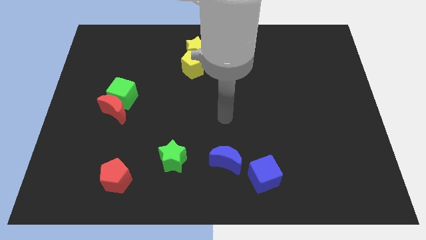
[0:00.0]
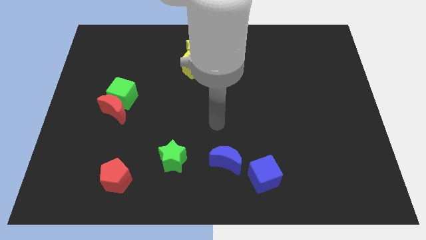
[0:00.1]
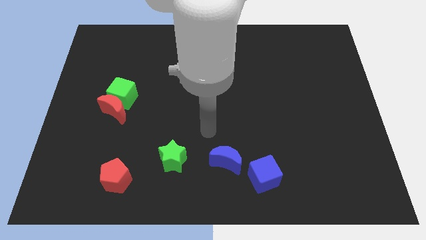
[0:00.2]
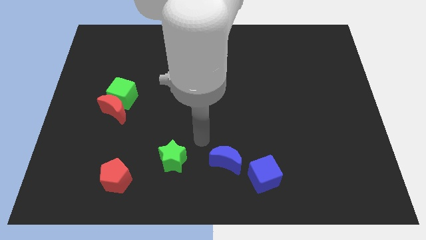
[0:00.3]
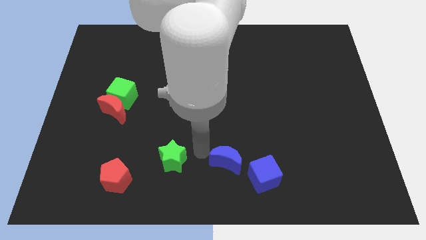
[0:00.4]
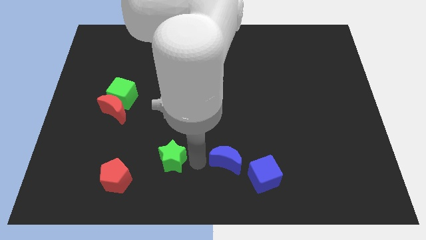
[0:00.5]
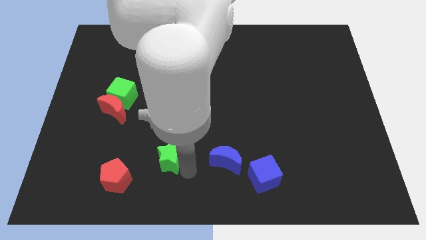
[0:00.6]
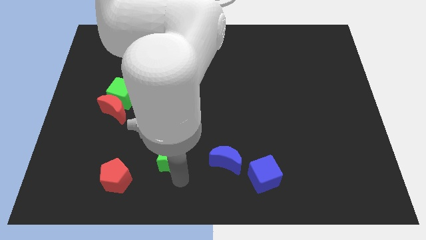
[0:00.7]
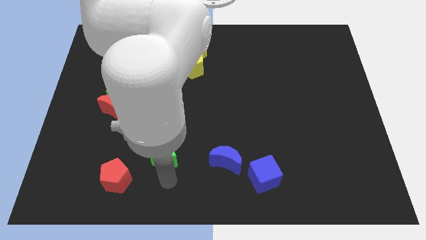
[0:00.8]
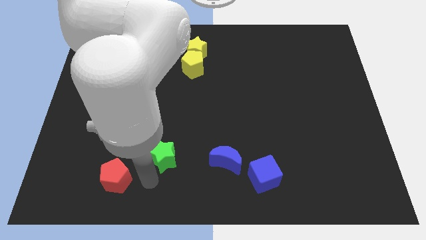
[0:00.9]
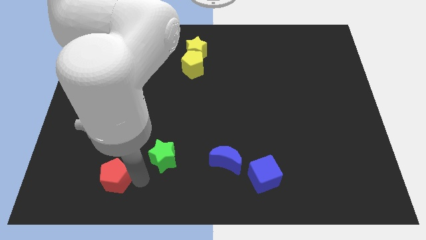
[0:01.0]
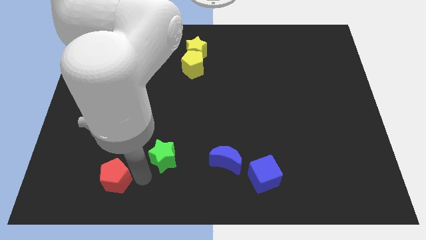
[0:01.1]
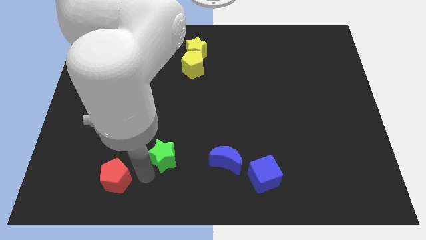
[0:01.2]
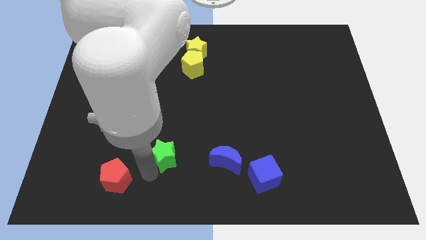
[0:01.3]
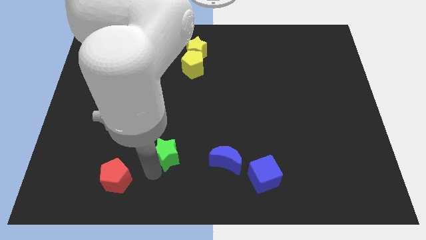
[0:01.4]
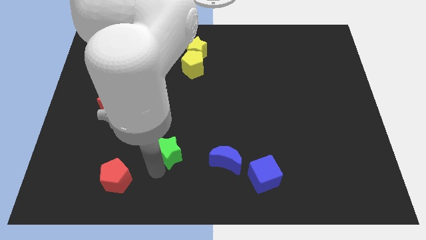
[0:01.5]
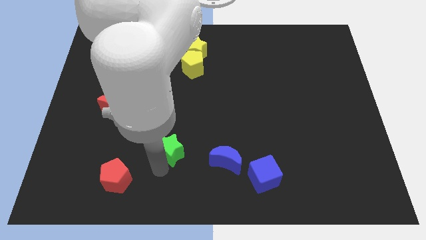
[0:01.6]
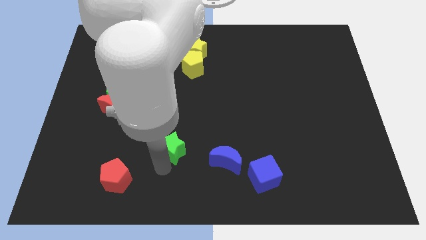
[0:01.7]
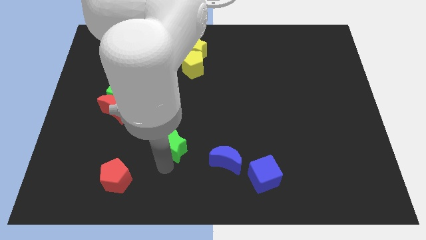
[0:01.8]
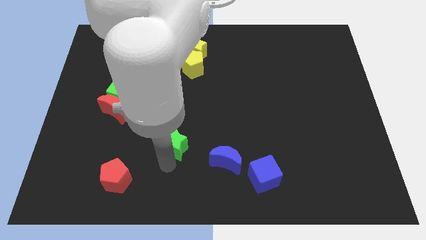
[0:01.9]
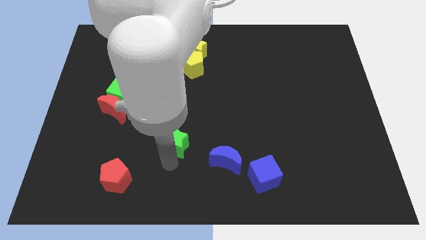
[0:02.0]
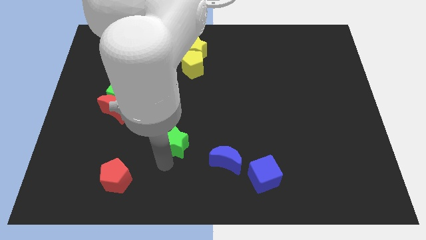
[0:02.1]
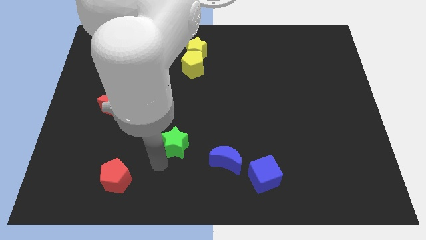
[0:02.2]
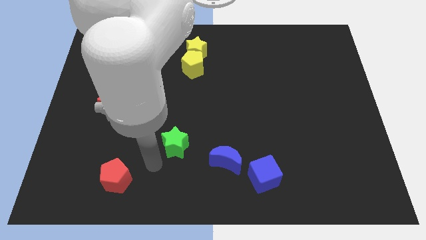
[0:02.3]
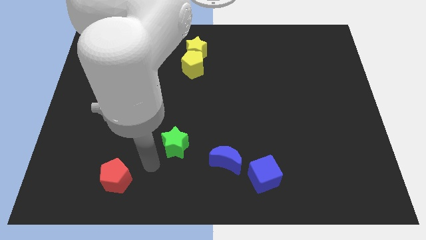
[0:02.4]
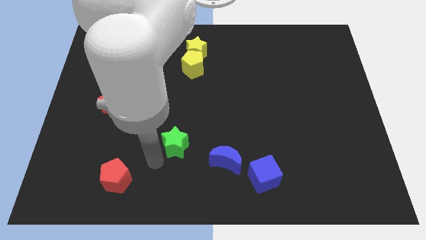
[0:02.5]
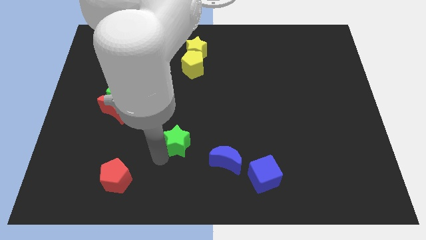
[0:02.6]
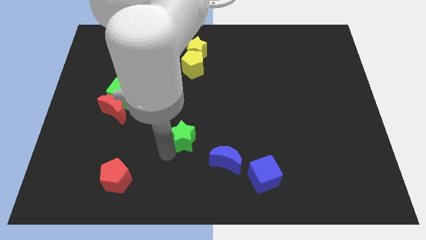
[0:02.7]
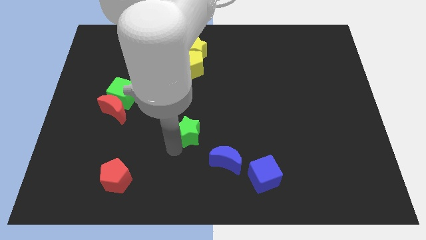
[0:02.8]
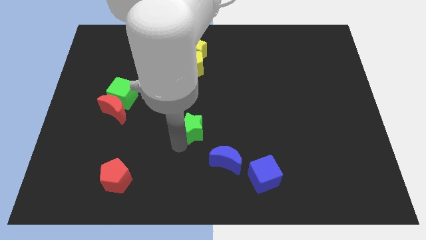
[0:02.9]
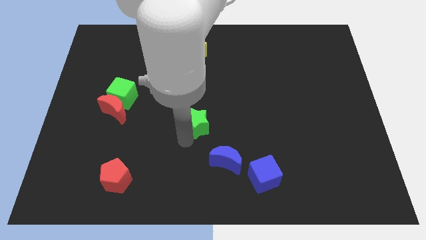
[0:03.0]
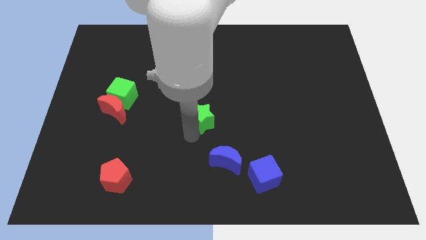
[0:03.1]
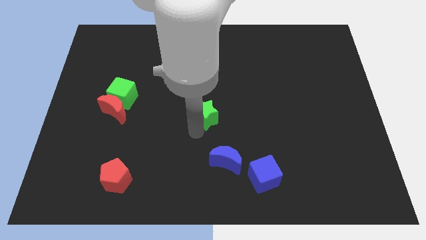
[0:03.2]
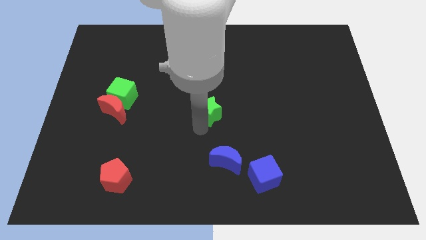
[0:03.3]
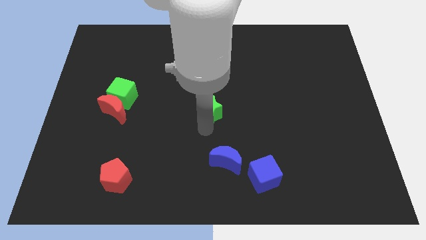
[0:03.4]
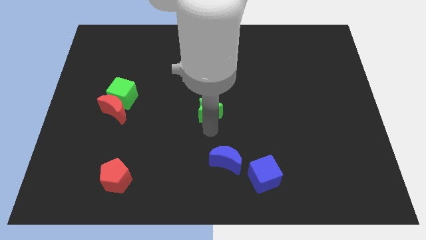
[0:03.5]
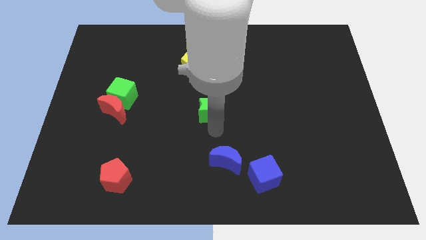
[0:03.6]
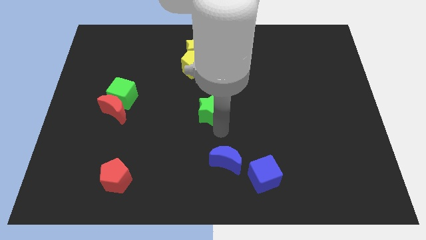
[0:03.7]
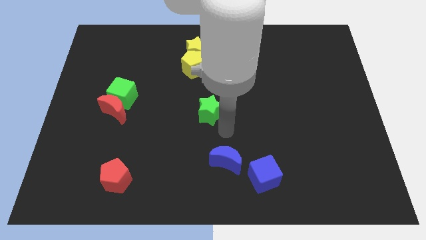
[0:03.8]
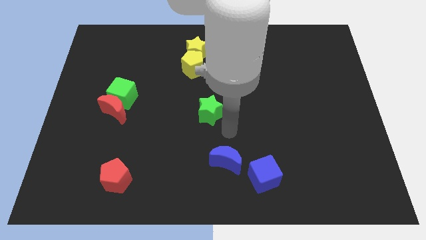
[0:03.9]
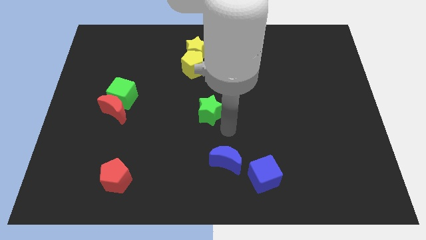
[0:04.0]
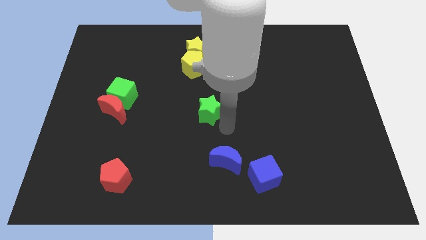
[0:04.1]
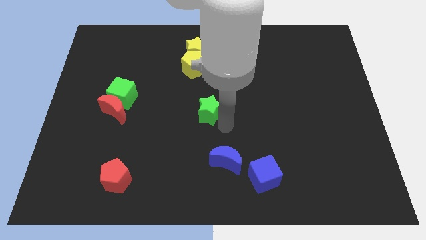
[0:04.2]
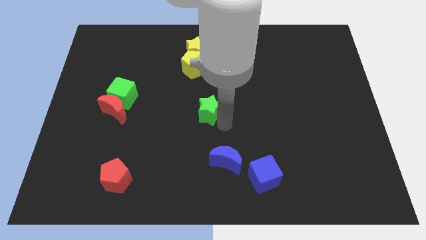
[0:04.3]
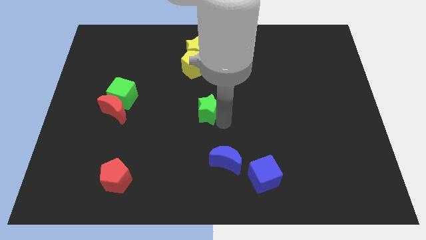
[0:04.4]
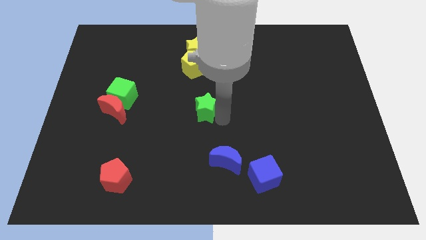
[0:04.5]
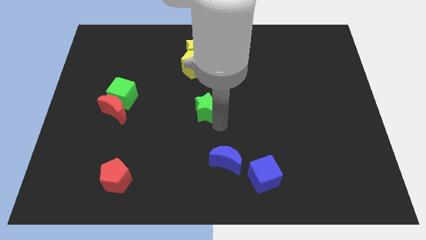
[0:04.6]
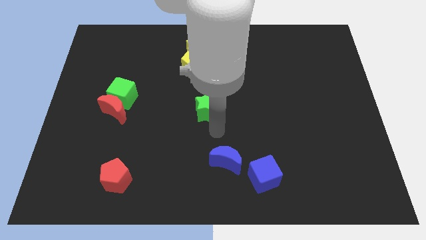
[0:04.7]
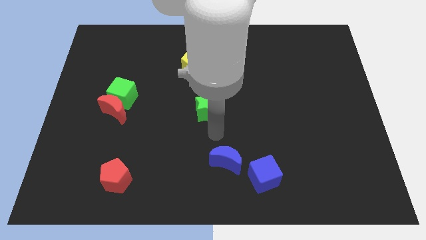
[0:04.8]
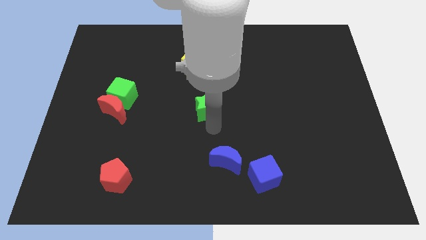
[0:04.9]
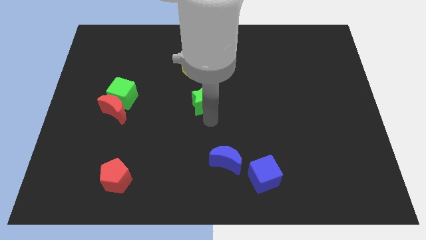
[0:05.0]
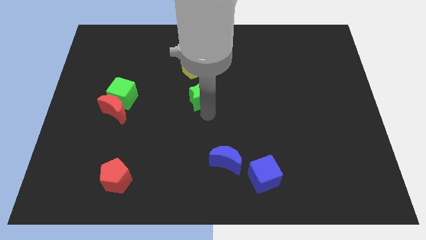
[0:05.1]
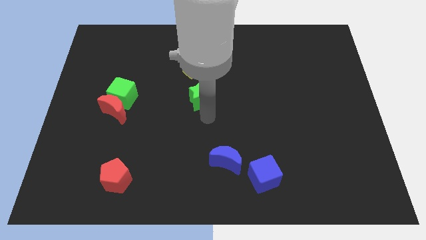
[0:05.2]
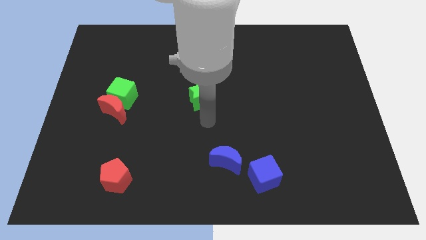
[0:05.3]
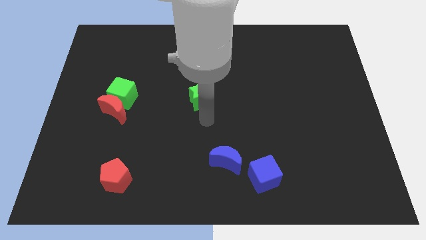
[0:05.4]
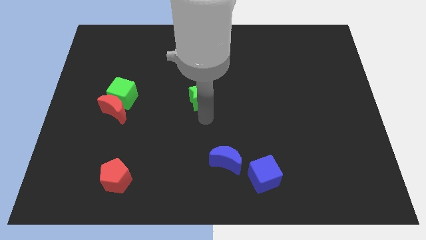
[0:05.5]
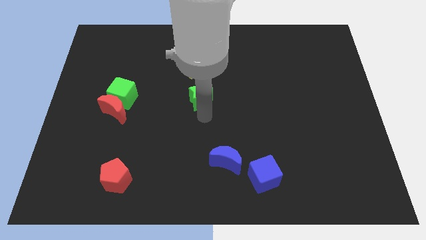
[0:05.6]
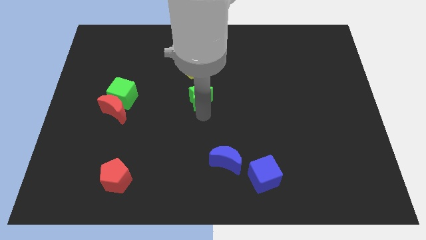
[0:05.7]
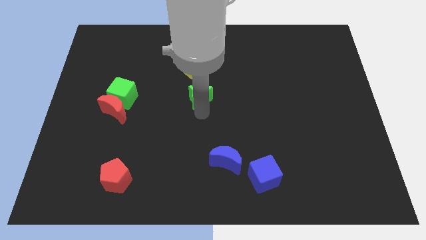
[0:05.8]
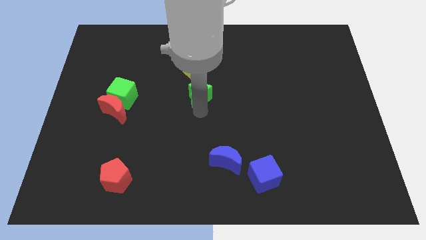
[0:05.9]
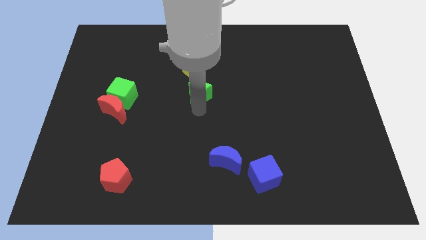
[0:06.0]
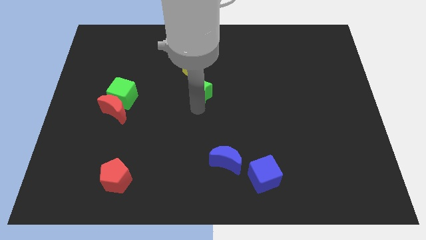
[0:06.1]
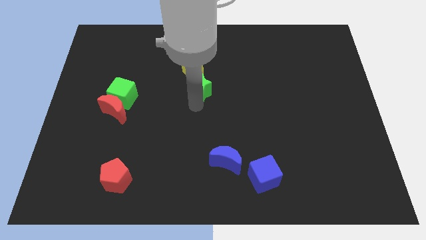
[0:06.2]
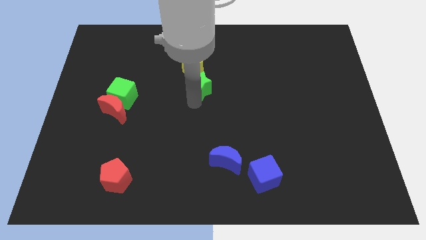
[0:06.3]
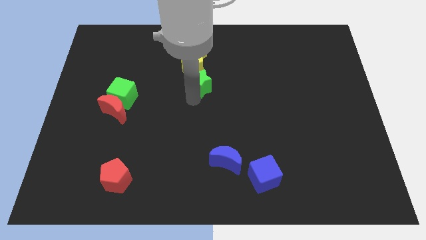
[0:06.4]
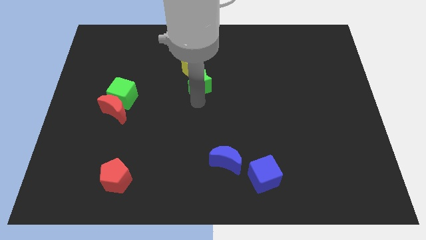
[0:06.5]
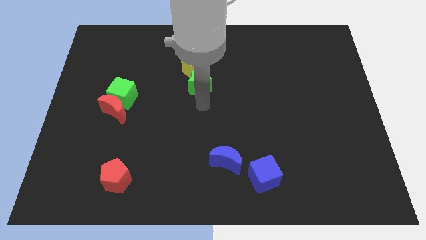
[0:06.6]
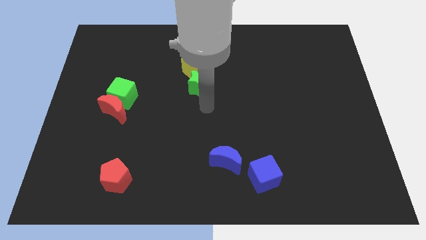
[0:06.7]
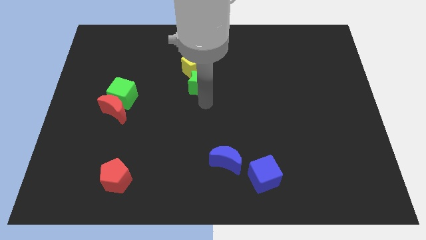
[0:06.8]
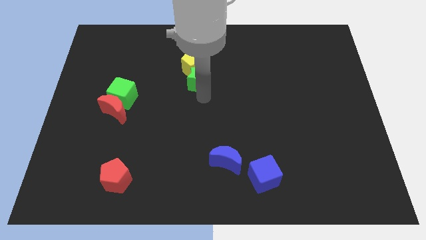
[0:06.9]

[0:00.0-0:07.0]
slide the green star close to the yellow pentagon

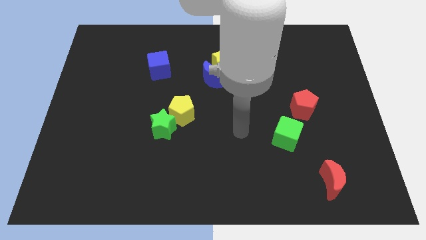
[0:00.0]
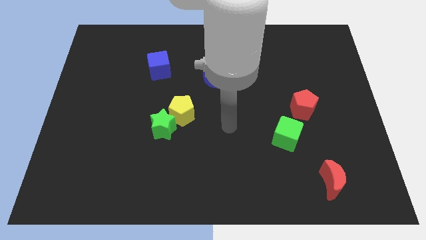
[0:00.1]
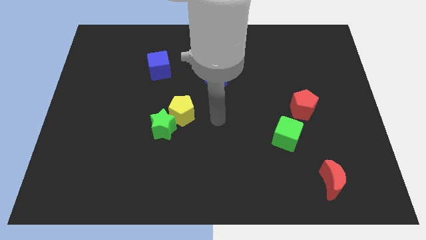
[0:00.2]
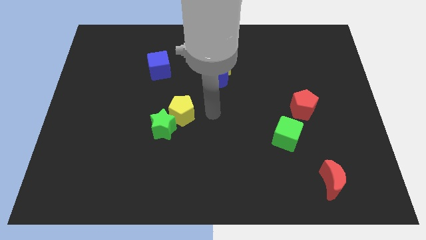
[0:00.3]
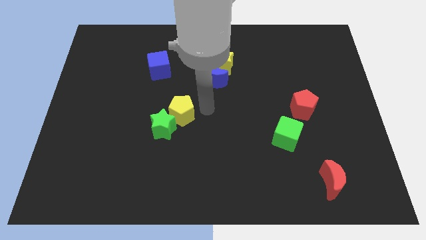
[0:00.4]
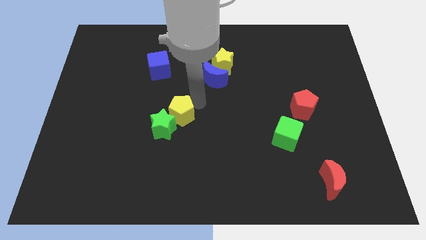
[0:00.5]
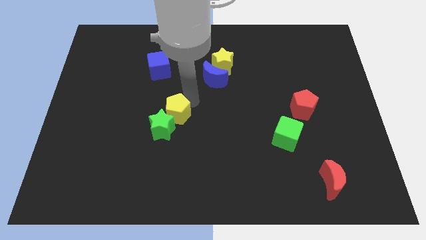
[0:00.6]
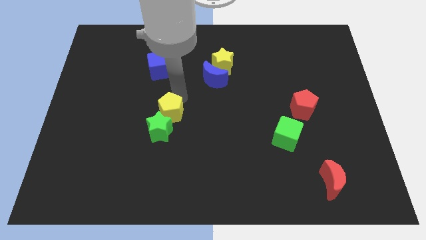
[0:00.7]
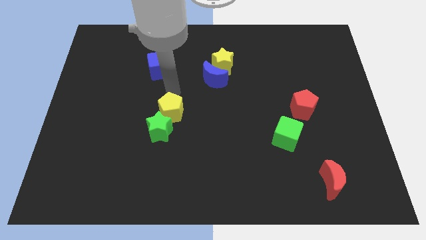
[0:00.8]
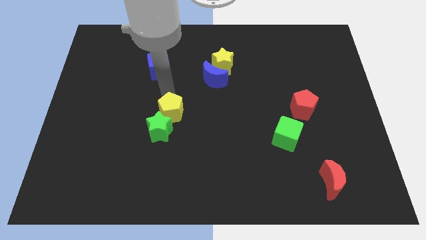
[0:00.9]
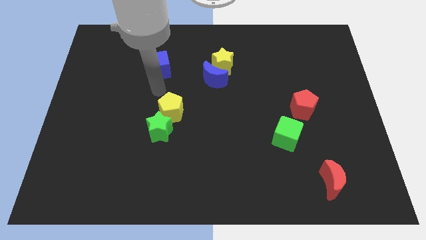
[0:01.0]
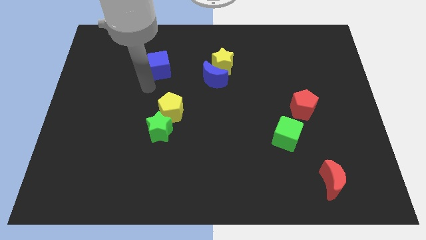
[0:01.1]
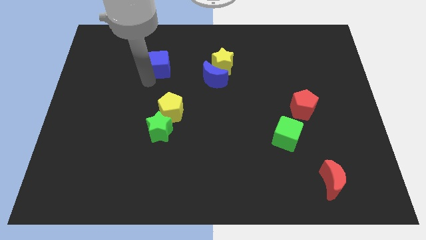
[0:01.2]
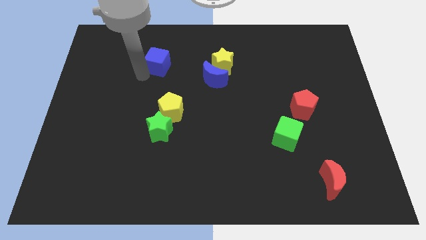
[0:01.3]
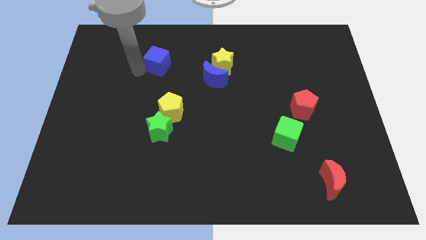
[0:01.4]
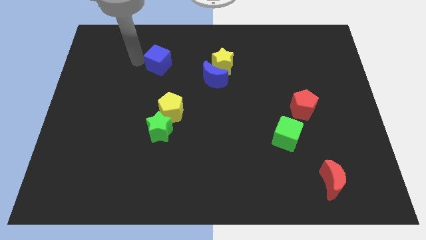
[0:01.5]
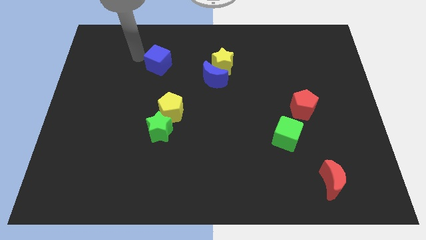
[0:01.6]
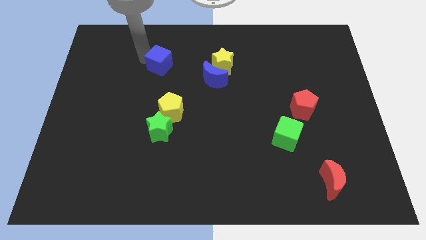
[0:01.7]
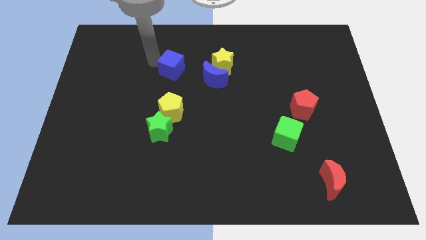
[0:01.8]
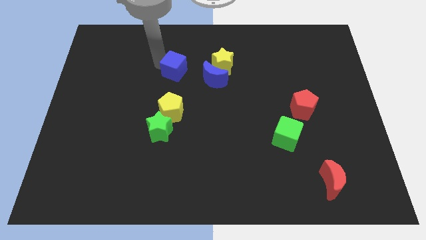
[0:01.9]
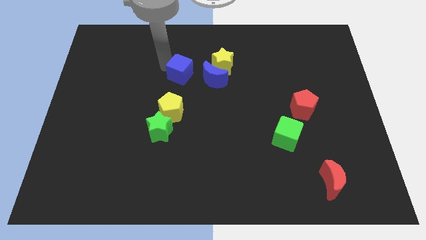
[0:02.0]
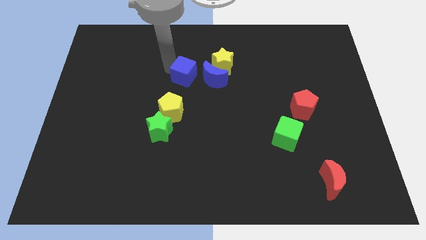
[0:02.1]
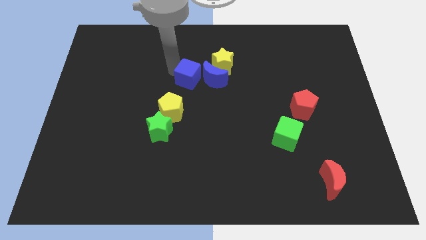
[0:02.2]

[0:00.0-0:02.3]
put the blue cube close to the blue moon
